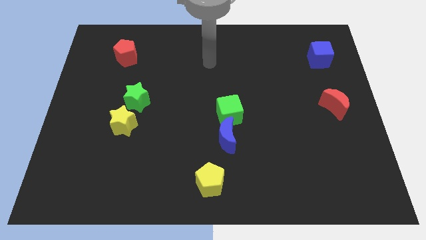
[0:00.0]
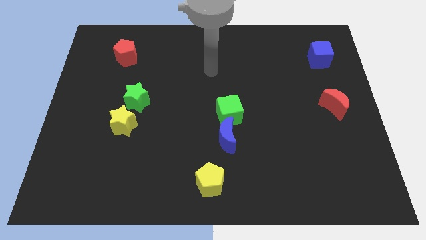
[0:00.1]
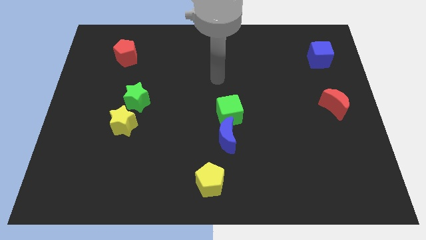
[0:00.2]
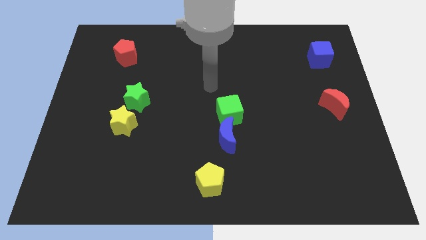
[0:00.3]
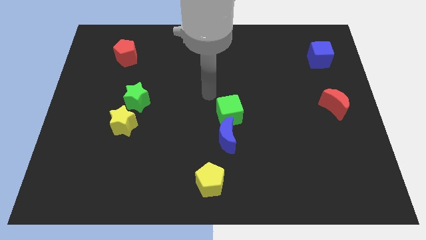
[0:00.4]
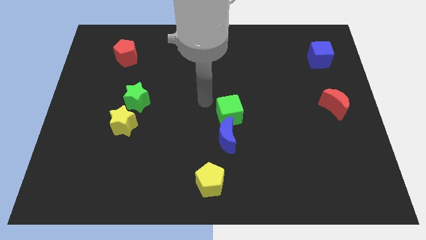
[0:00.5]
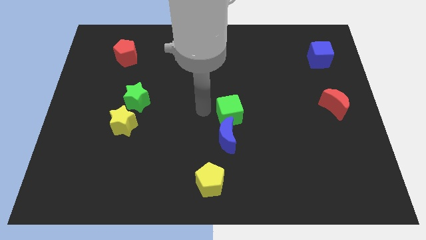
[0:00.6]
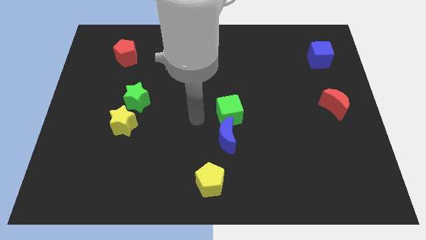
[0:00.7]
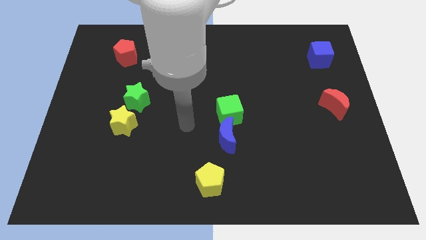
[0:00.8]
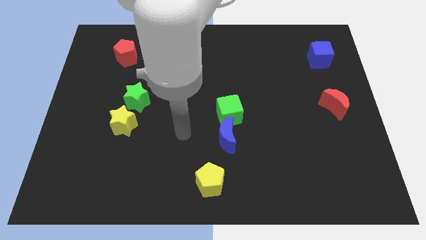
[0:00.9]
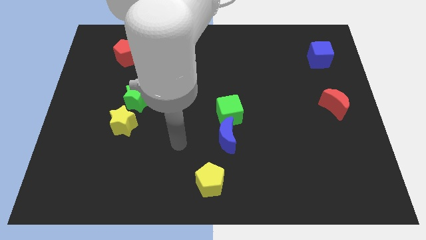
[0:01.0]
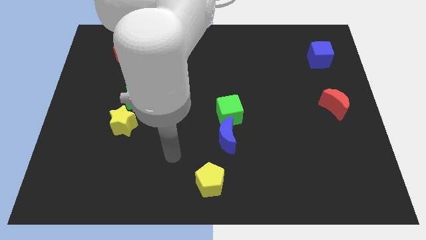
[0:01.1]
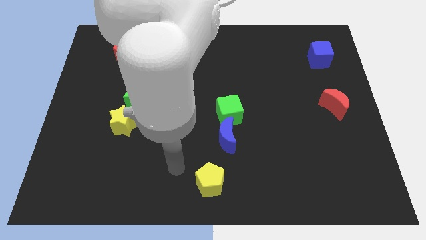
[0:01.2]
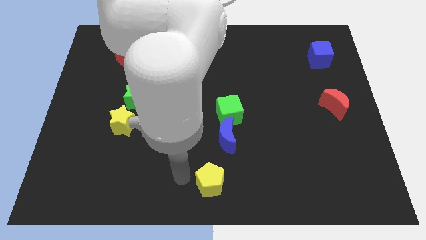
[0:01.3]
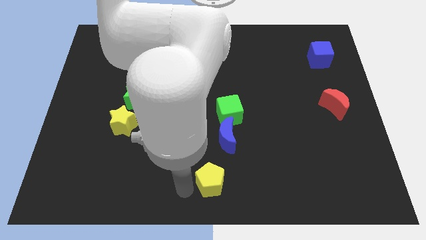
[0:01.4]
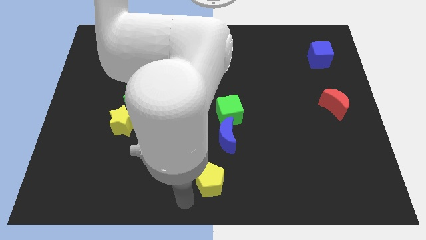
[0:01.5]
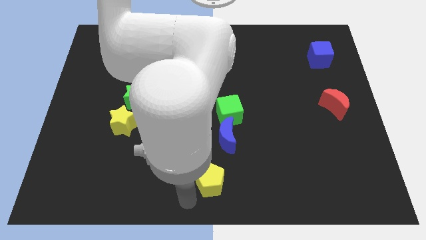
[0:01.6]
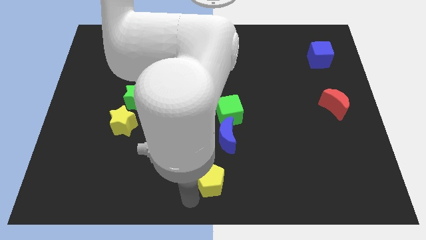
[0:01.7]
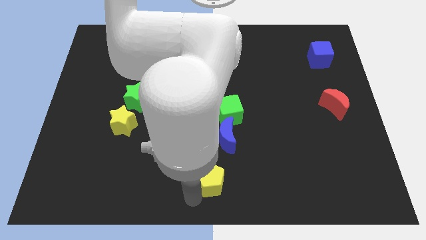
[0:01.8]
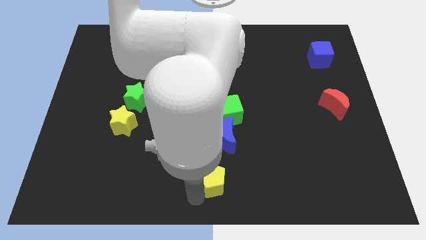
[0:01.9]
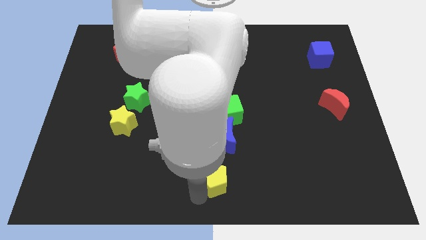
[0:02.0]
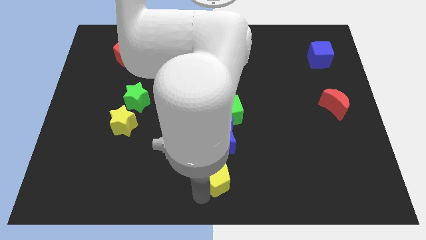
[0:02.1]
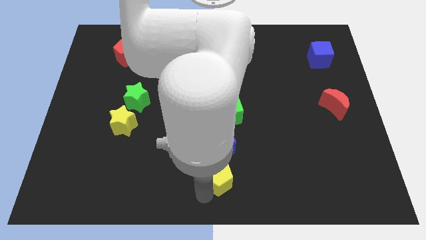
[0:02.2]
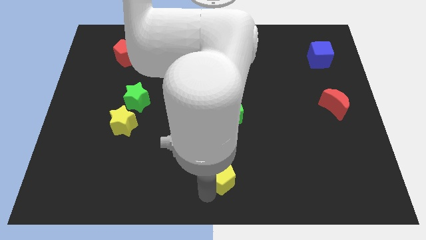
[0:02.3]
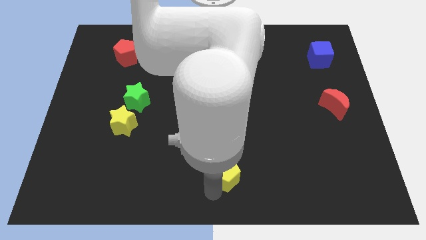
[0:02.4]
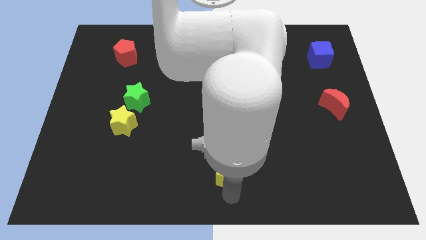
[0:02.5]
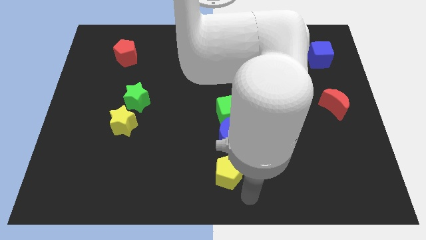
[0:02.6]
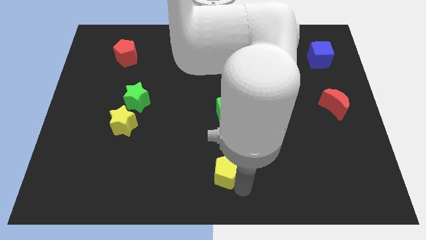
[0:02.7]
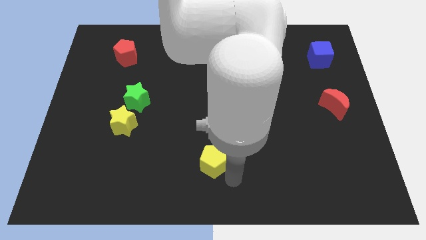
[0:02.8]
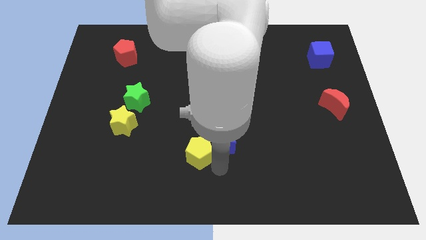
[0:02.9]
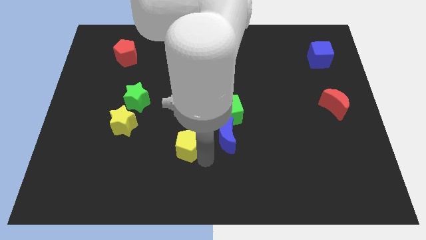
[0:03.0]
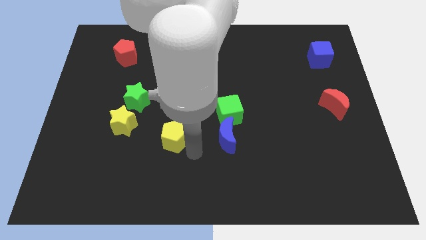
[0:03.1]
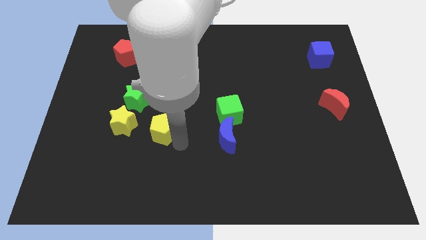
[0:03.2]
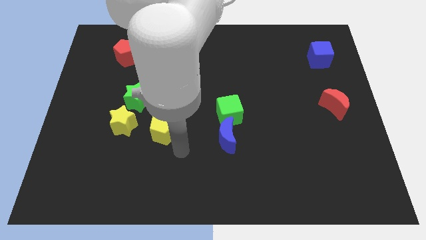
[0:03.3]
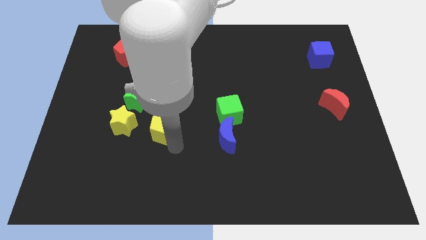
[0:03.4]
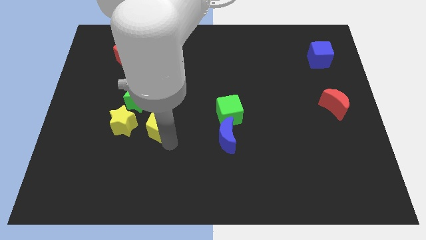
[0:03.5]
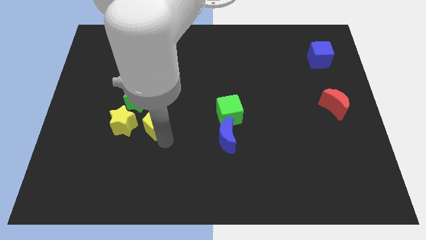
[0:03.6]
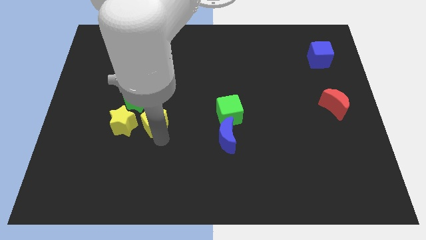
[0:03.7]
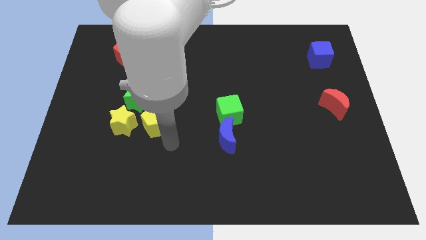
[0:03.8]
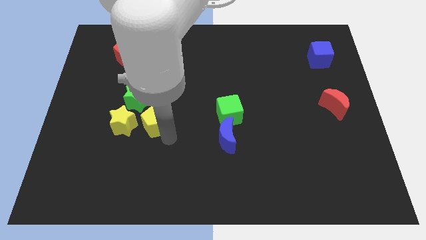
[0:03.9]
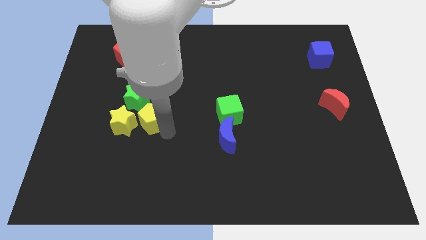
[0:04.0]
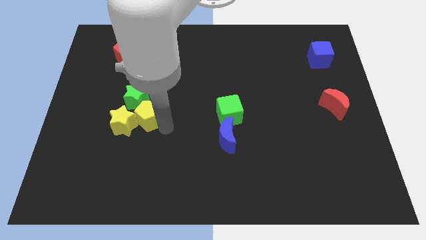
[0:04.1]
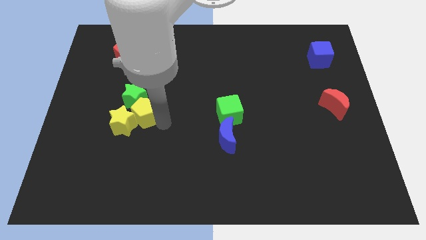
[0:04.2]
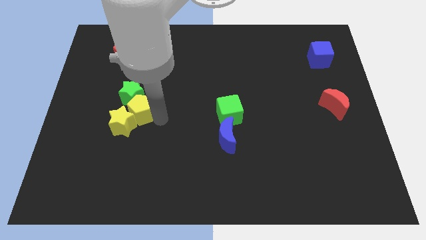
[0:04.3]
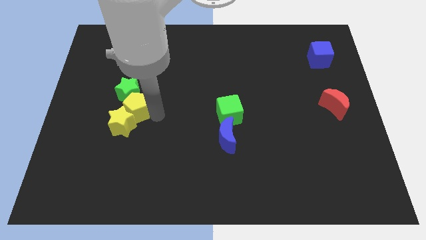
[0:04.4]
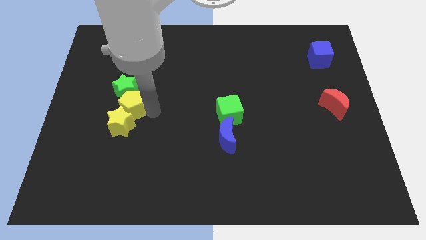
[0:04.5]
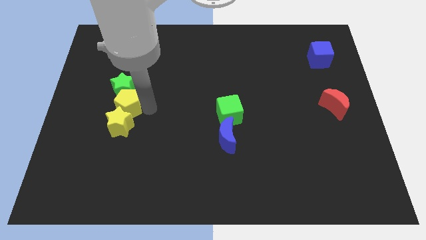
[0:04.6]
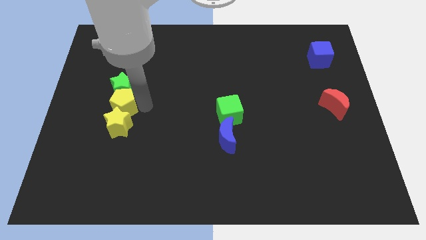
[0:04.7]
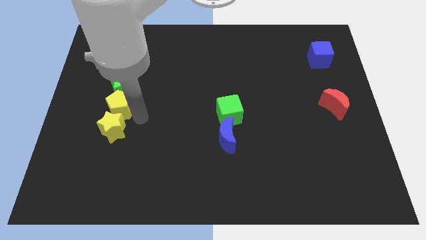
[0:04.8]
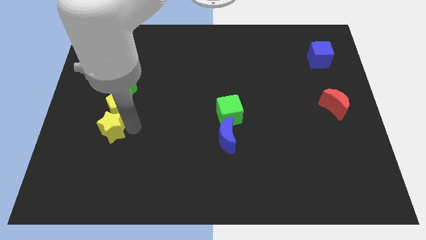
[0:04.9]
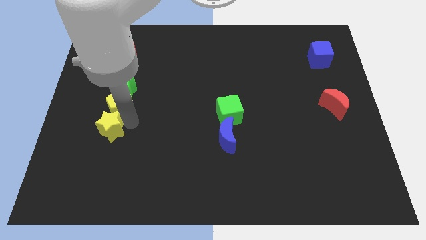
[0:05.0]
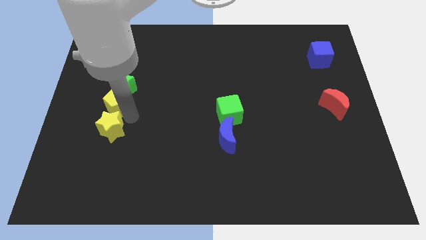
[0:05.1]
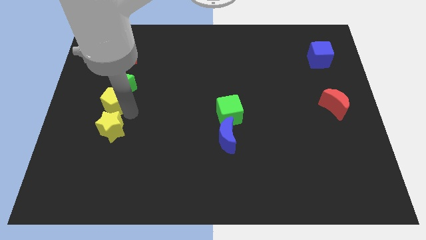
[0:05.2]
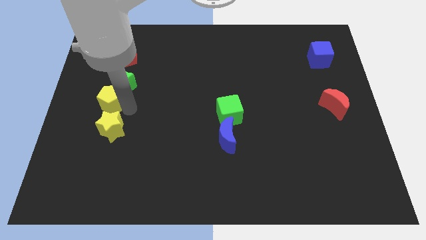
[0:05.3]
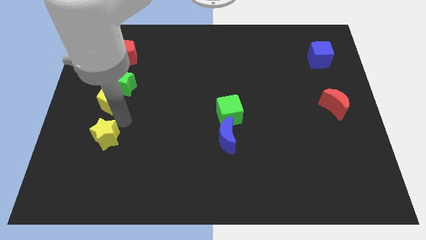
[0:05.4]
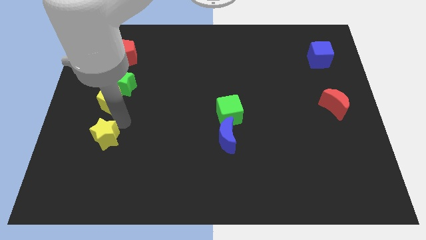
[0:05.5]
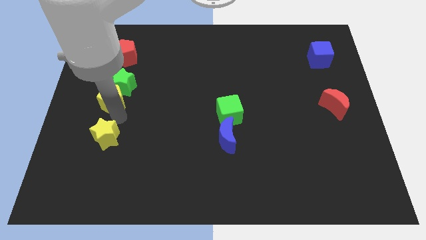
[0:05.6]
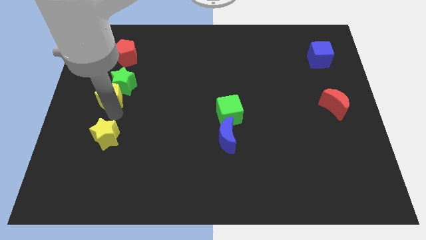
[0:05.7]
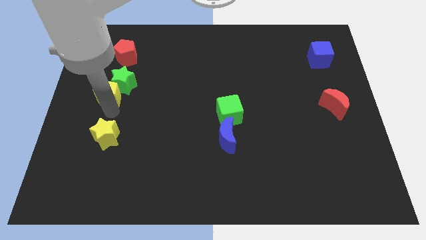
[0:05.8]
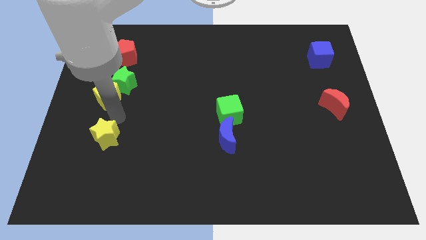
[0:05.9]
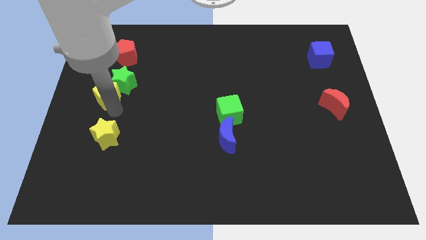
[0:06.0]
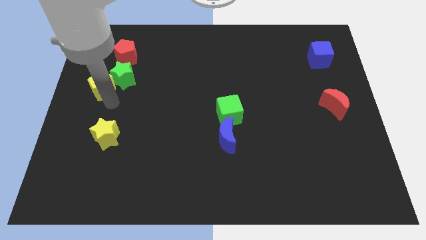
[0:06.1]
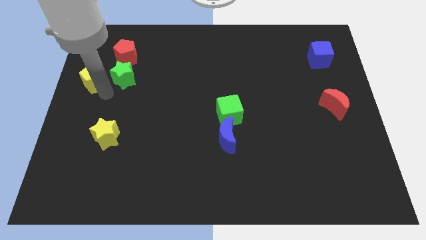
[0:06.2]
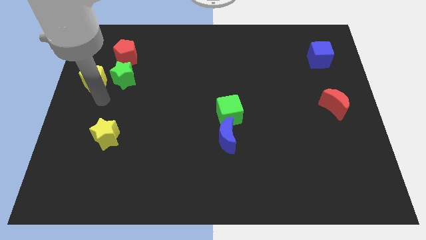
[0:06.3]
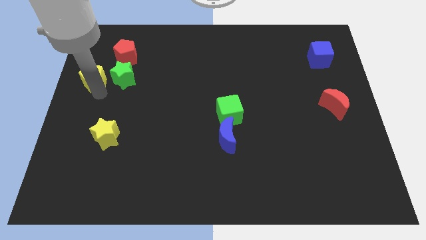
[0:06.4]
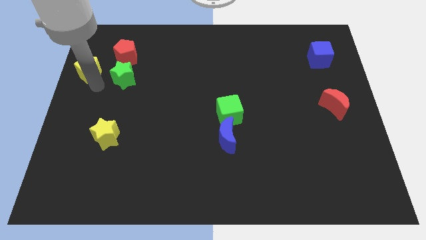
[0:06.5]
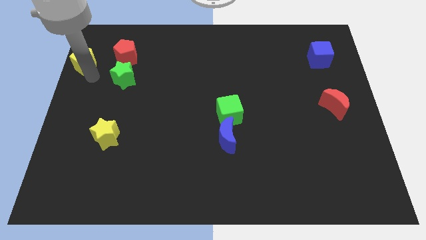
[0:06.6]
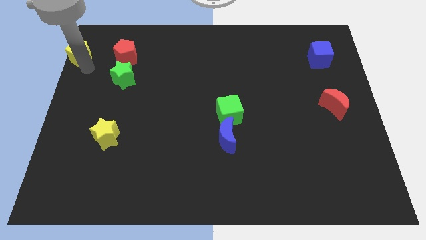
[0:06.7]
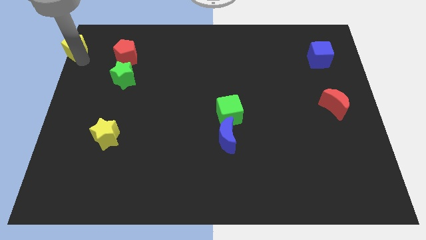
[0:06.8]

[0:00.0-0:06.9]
slide the yellow pentagon to the upper left corner
